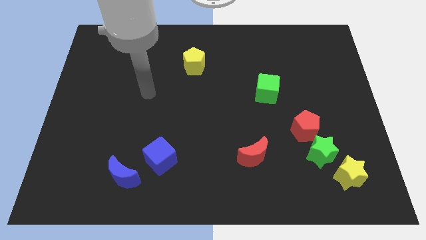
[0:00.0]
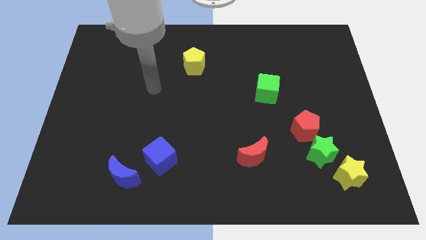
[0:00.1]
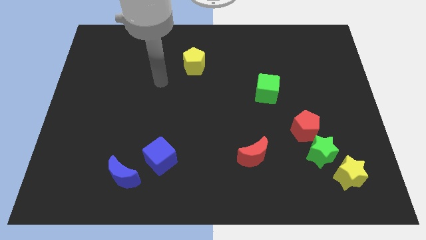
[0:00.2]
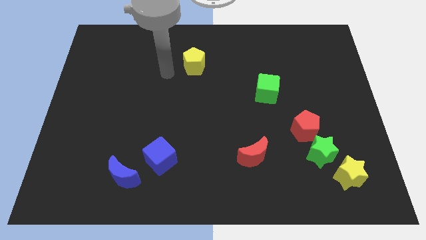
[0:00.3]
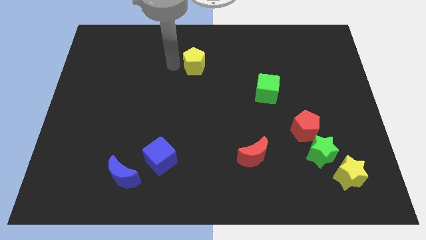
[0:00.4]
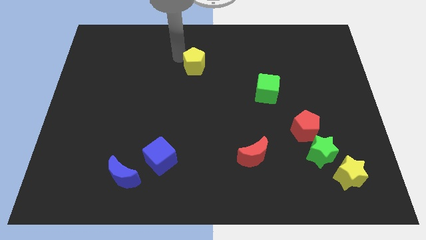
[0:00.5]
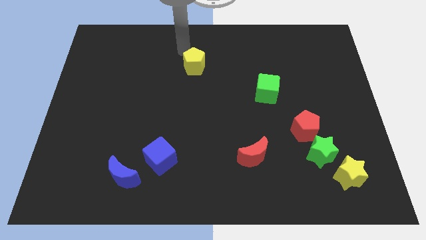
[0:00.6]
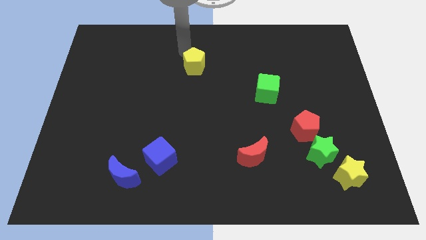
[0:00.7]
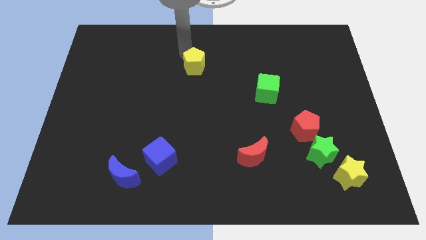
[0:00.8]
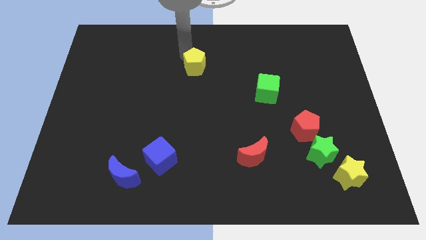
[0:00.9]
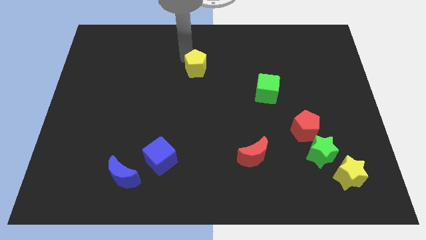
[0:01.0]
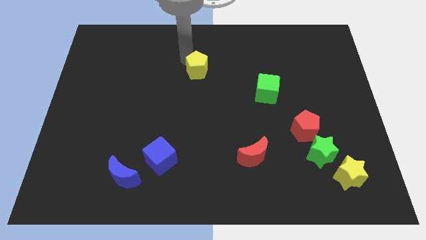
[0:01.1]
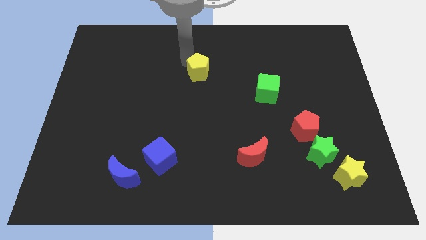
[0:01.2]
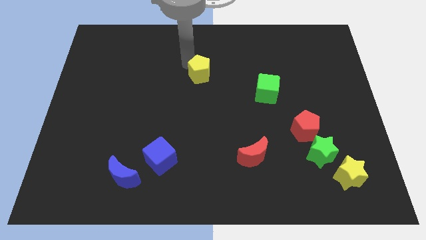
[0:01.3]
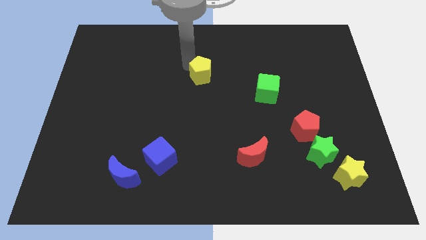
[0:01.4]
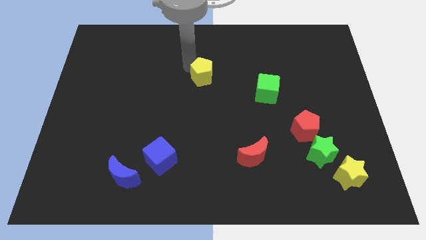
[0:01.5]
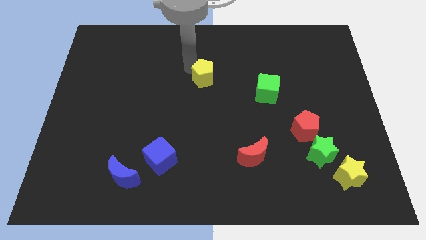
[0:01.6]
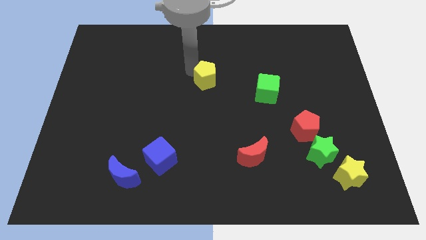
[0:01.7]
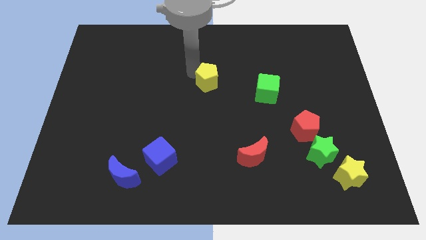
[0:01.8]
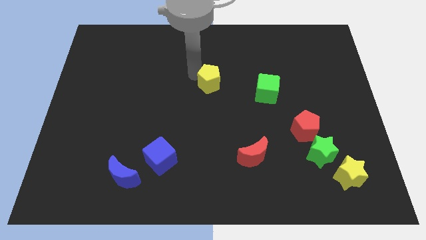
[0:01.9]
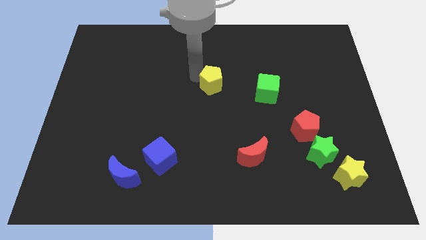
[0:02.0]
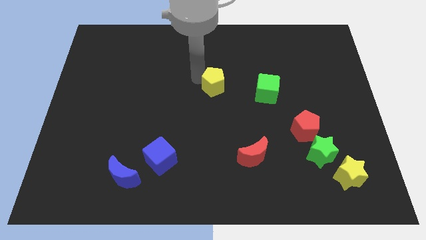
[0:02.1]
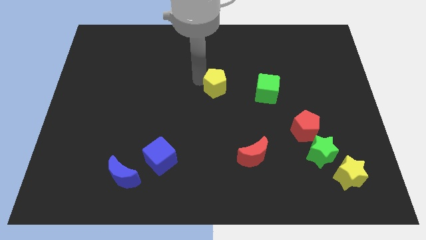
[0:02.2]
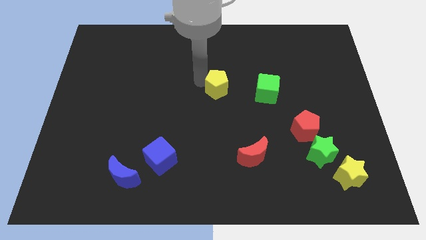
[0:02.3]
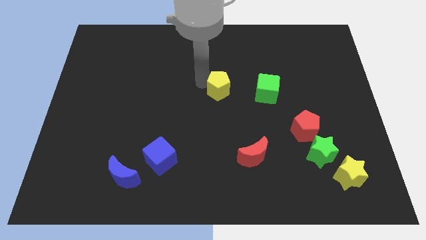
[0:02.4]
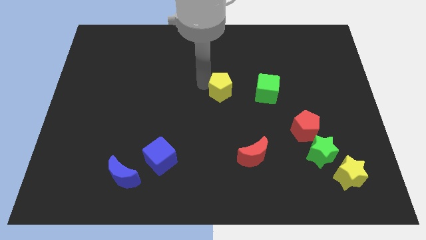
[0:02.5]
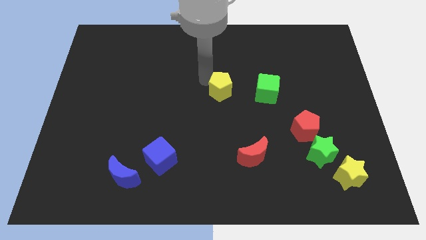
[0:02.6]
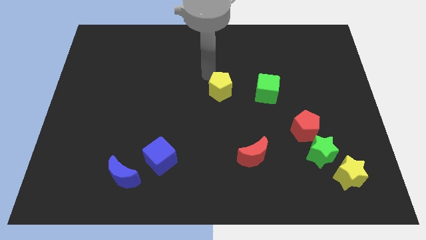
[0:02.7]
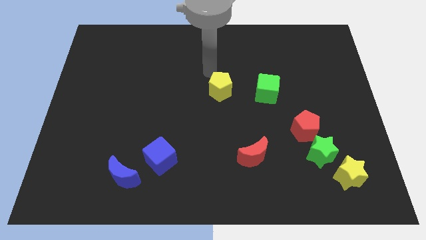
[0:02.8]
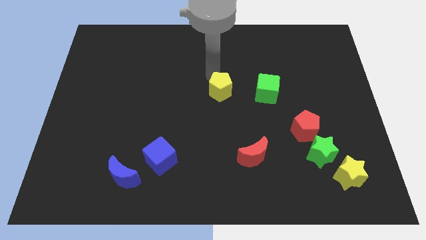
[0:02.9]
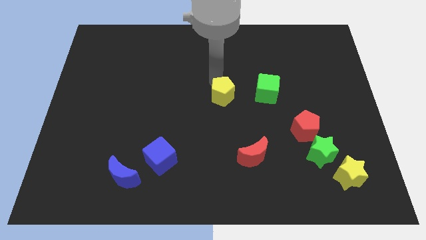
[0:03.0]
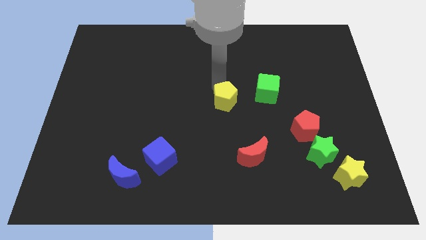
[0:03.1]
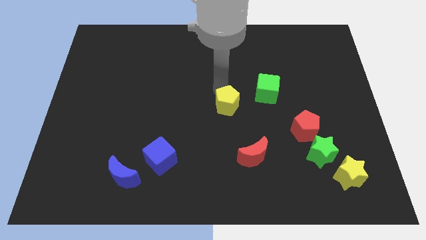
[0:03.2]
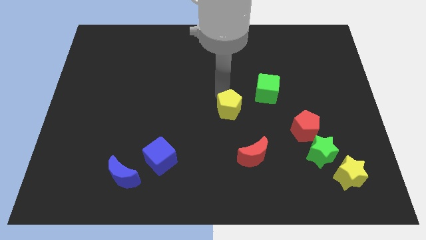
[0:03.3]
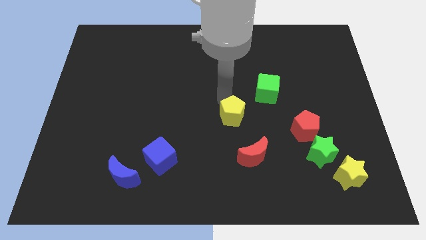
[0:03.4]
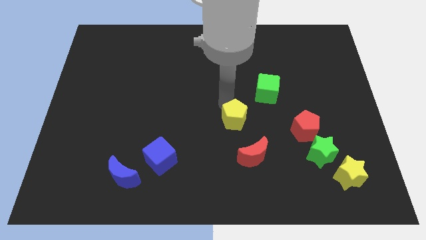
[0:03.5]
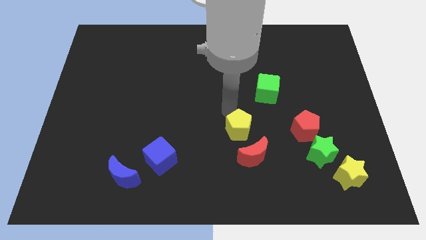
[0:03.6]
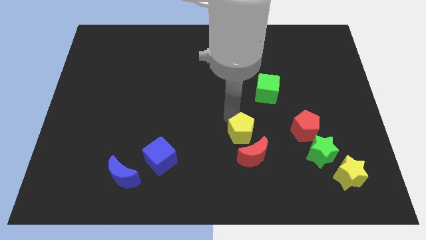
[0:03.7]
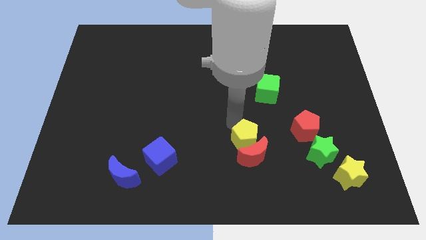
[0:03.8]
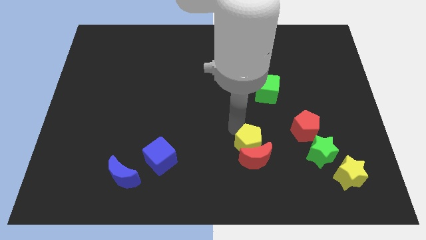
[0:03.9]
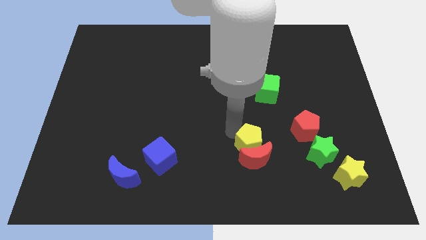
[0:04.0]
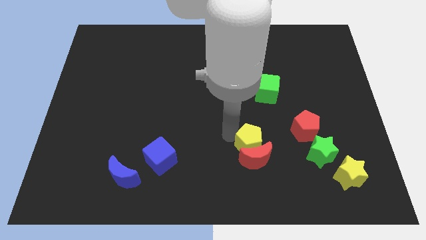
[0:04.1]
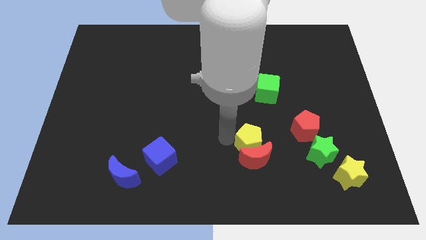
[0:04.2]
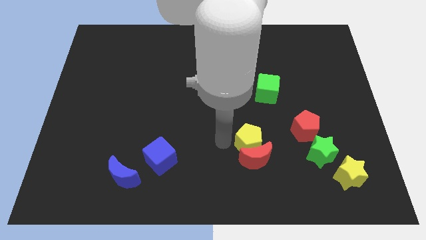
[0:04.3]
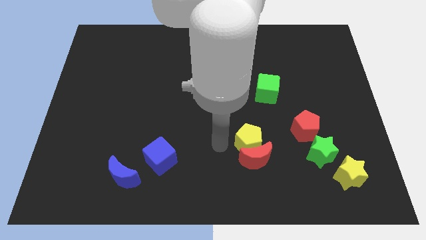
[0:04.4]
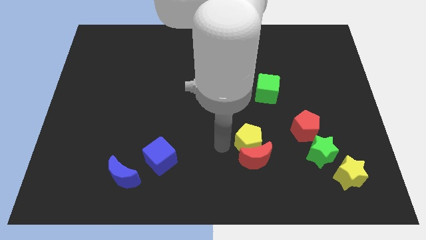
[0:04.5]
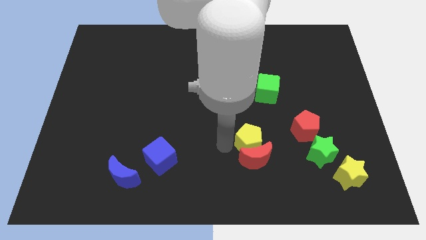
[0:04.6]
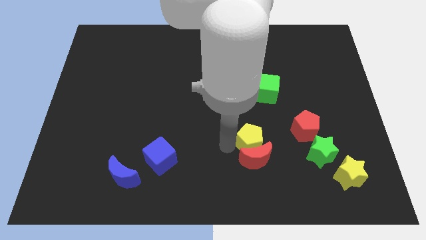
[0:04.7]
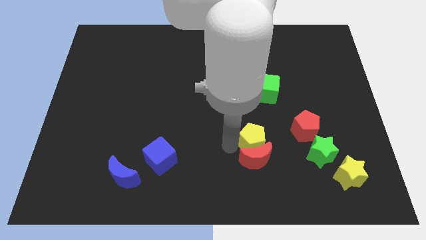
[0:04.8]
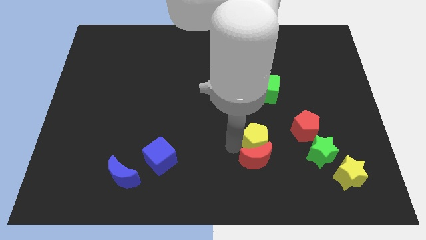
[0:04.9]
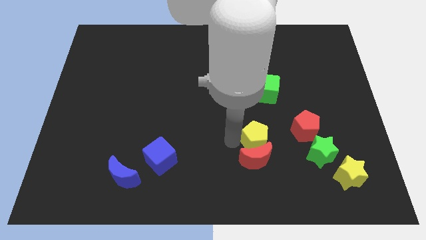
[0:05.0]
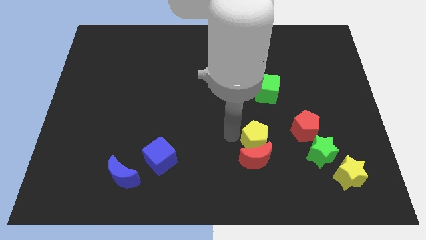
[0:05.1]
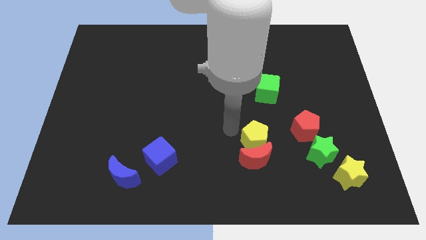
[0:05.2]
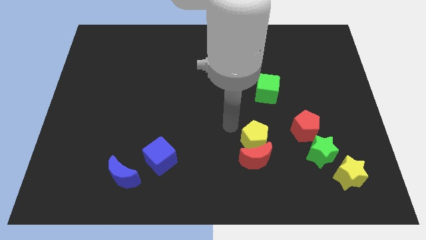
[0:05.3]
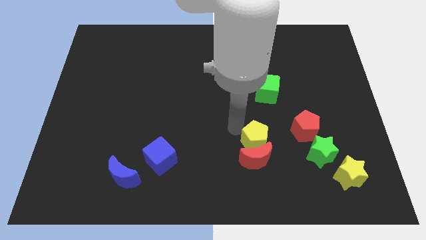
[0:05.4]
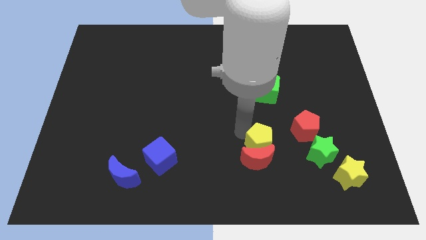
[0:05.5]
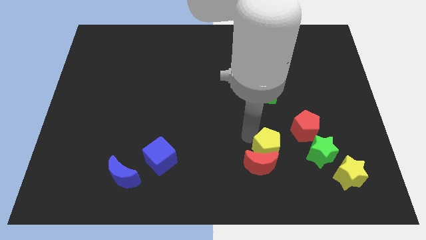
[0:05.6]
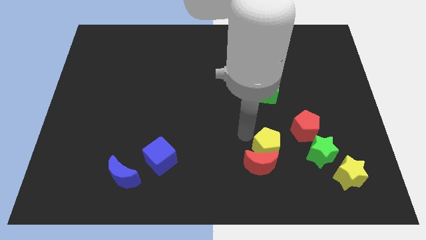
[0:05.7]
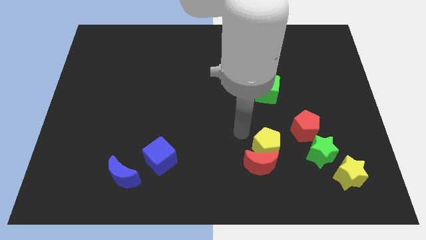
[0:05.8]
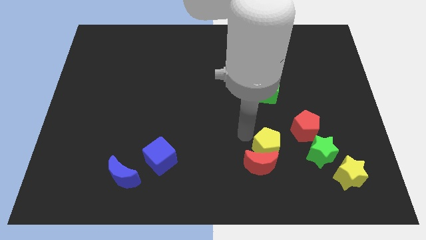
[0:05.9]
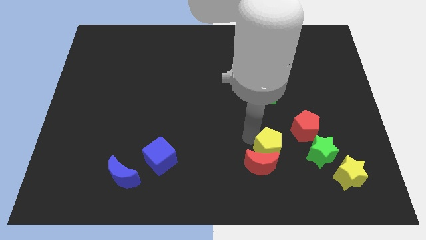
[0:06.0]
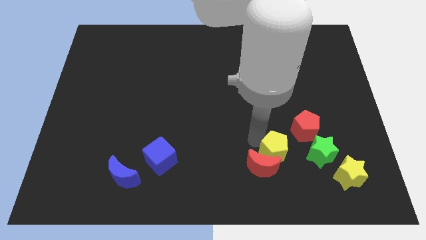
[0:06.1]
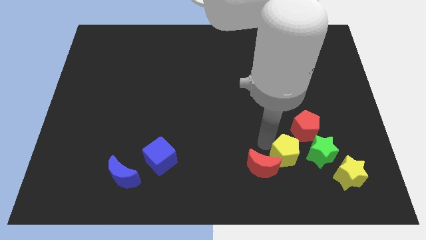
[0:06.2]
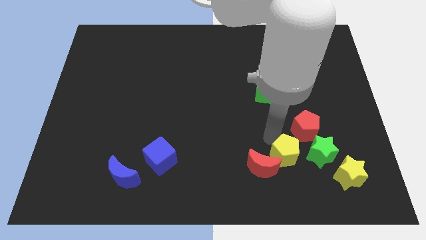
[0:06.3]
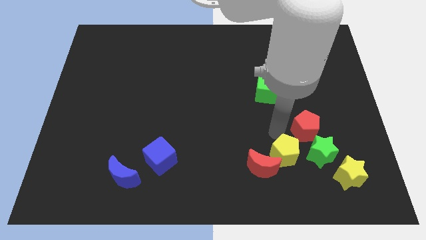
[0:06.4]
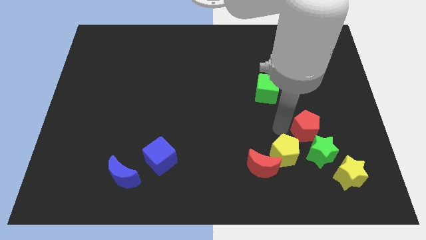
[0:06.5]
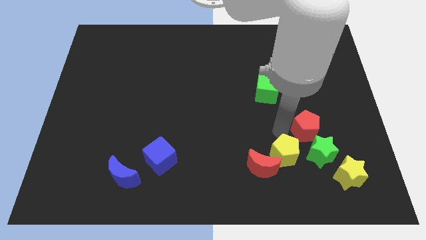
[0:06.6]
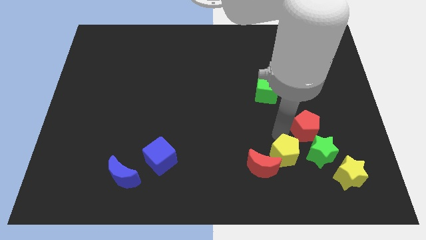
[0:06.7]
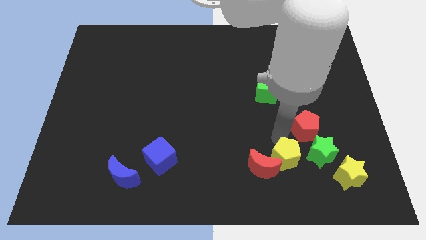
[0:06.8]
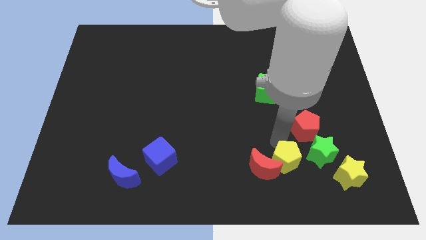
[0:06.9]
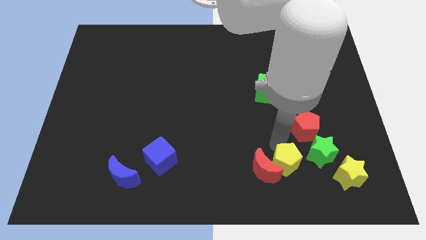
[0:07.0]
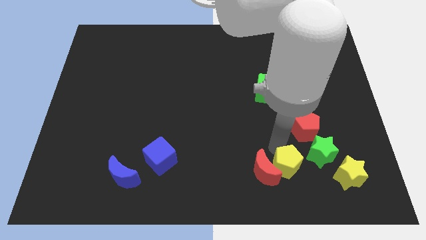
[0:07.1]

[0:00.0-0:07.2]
put the yellow pentagon diagonally down and to the right of the red moon
